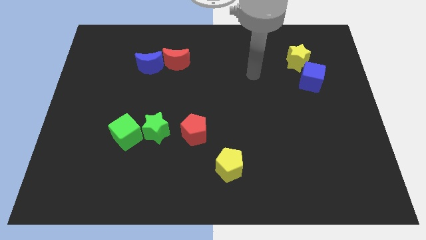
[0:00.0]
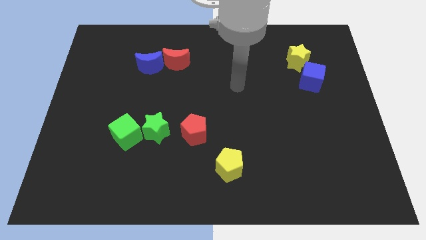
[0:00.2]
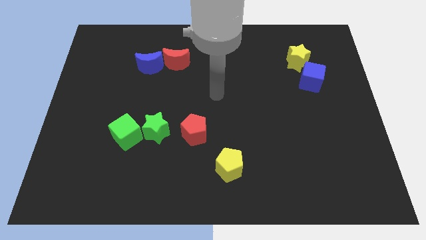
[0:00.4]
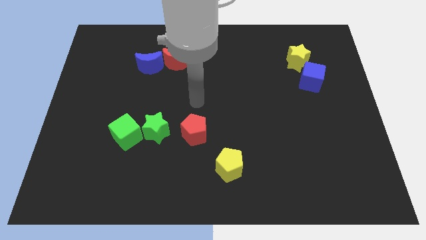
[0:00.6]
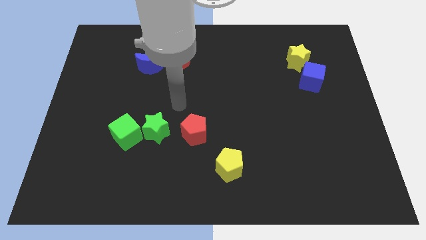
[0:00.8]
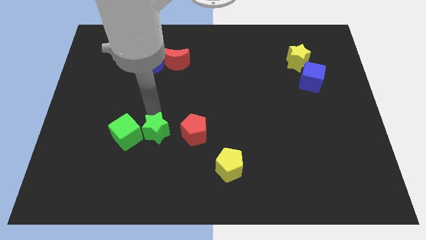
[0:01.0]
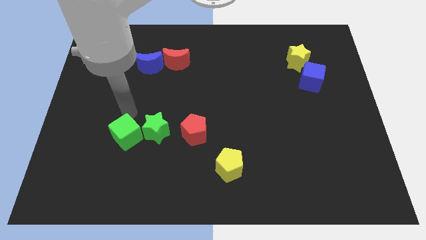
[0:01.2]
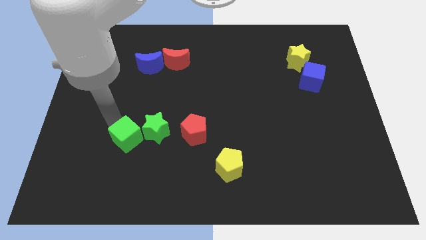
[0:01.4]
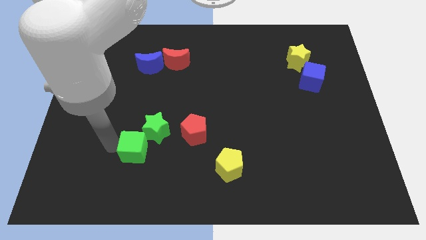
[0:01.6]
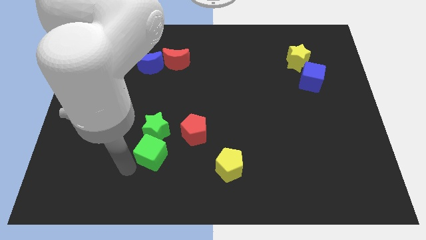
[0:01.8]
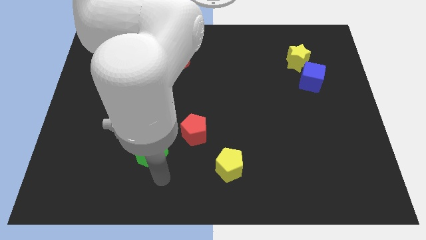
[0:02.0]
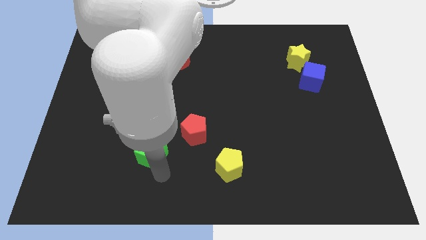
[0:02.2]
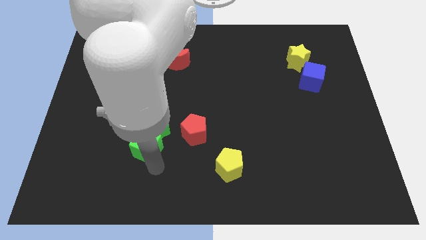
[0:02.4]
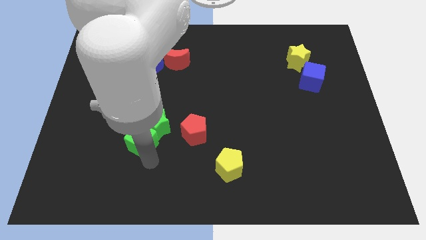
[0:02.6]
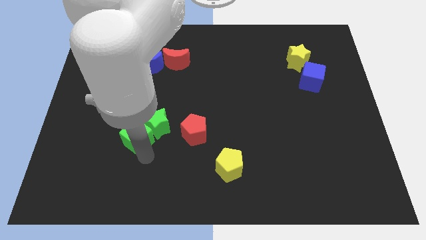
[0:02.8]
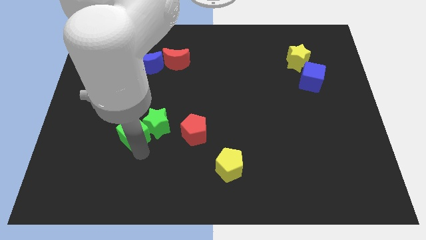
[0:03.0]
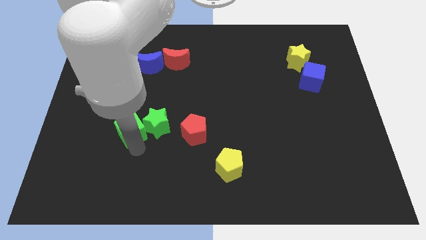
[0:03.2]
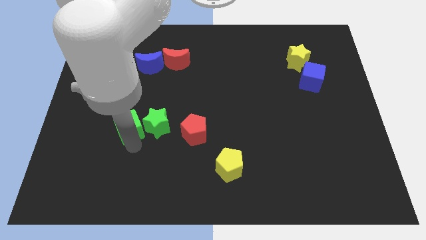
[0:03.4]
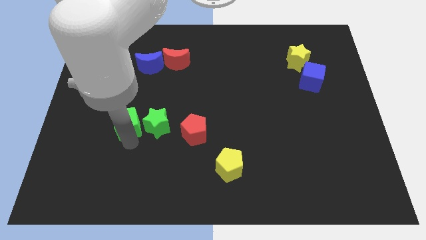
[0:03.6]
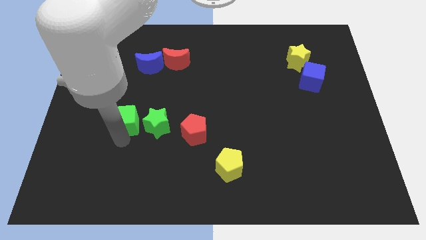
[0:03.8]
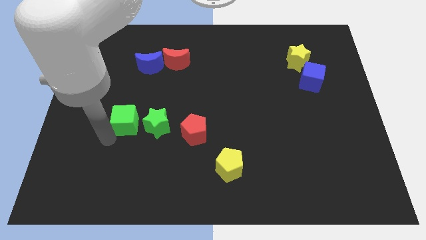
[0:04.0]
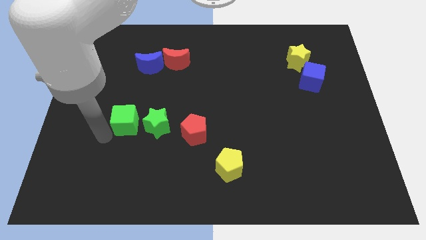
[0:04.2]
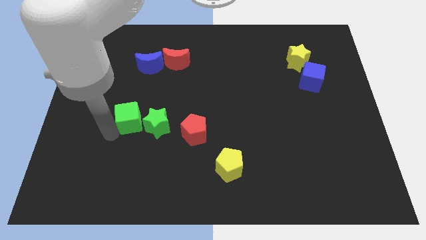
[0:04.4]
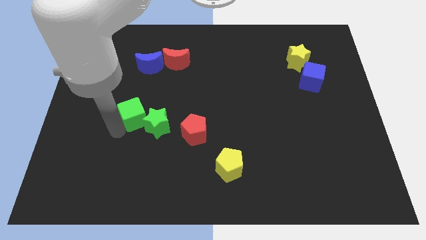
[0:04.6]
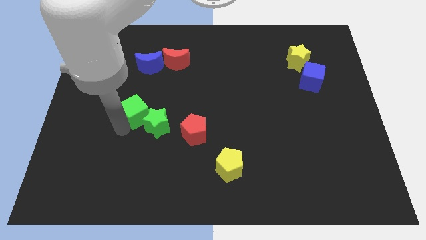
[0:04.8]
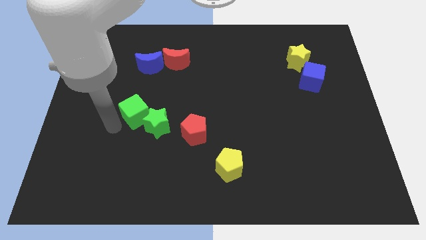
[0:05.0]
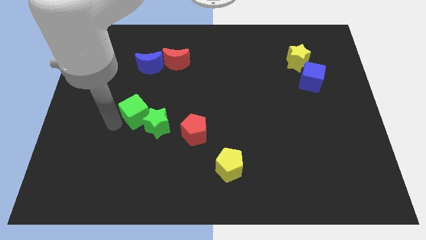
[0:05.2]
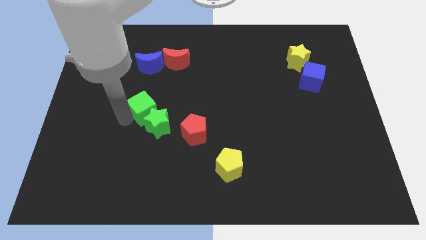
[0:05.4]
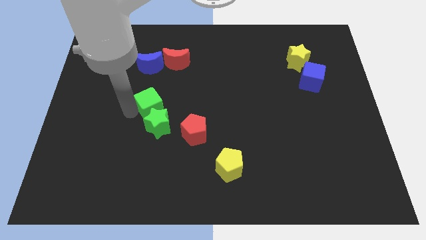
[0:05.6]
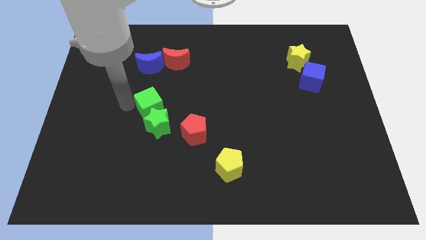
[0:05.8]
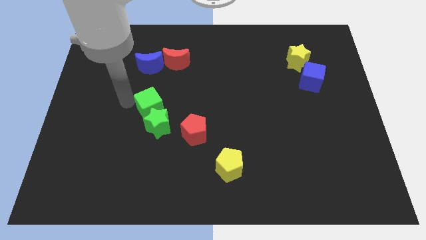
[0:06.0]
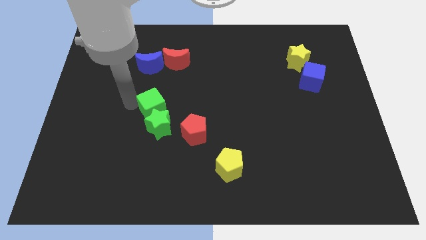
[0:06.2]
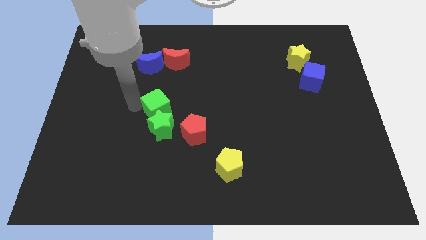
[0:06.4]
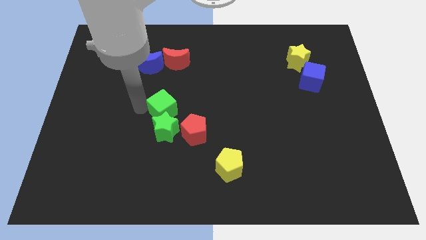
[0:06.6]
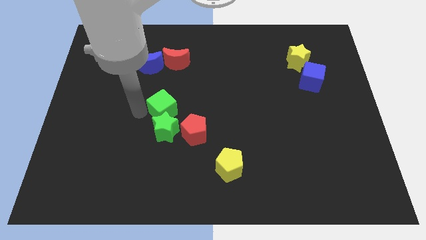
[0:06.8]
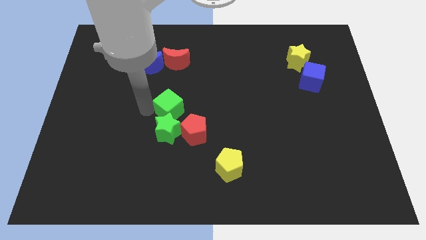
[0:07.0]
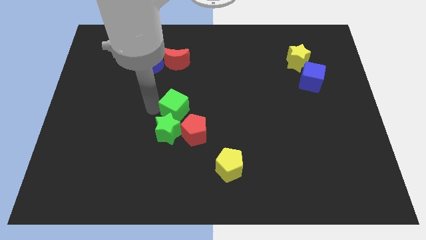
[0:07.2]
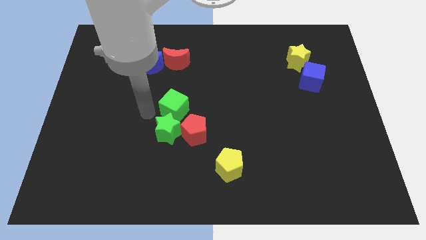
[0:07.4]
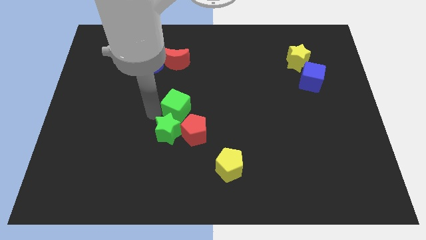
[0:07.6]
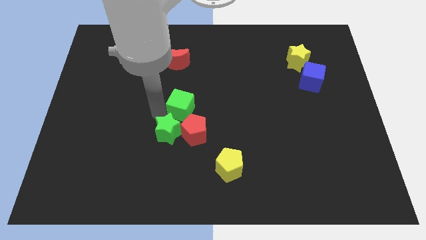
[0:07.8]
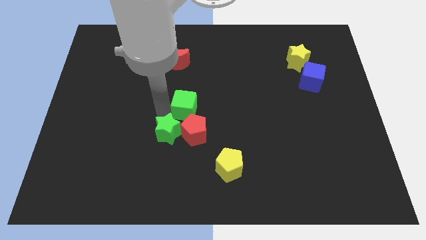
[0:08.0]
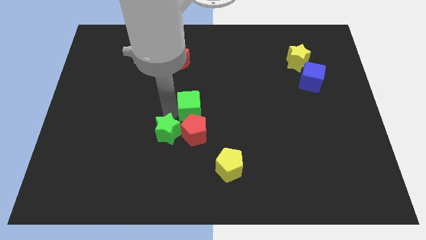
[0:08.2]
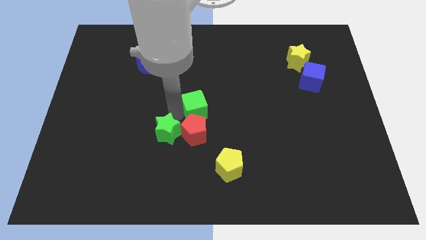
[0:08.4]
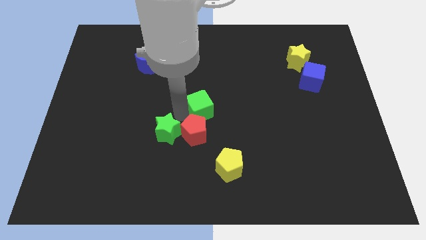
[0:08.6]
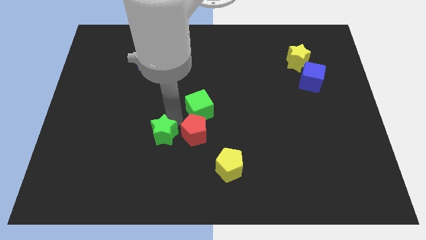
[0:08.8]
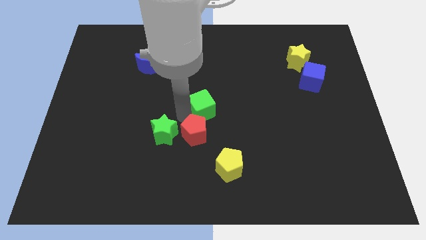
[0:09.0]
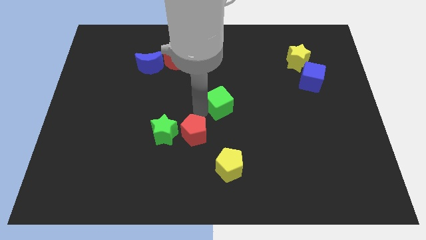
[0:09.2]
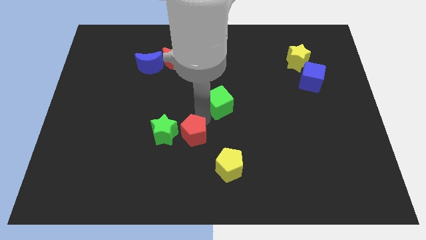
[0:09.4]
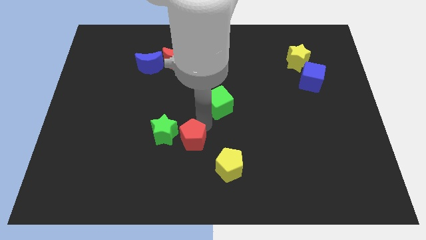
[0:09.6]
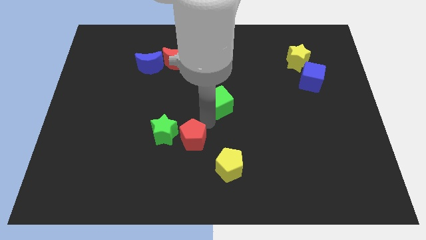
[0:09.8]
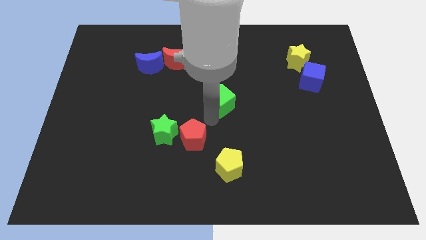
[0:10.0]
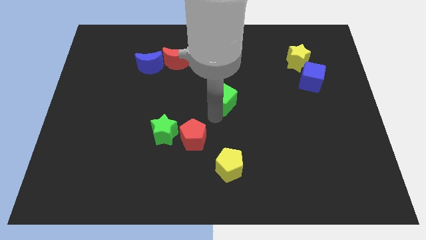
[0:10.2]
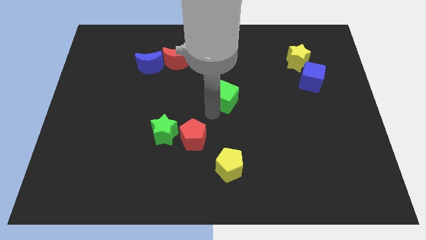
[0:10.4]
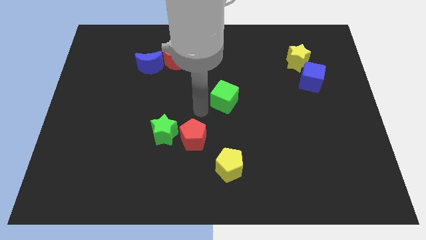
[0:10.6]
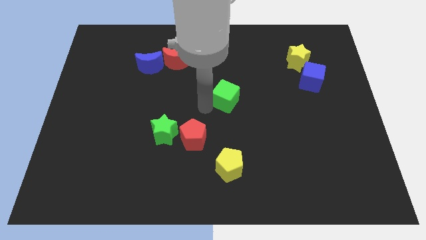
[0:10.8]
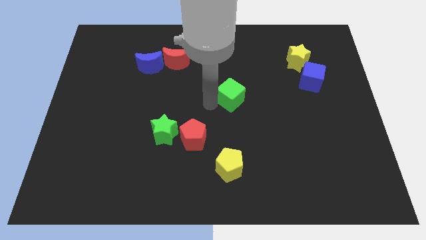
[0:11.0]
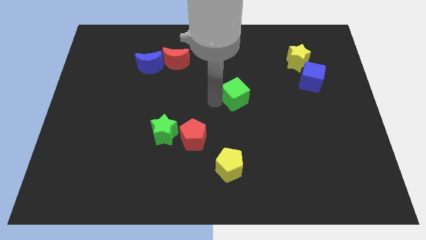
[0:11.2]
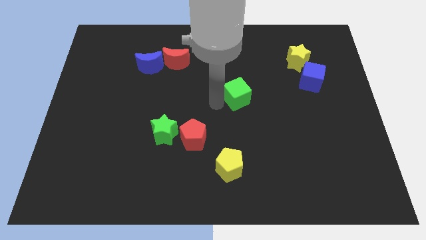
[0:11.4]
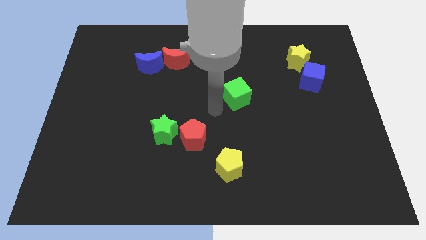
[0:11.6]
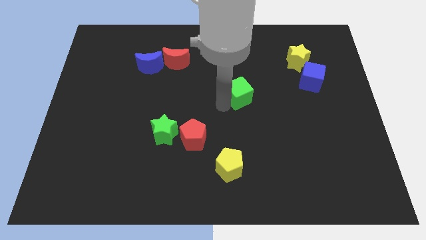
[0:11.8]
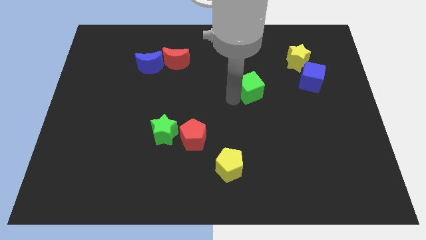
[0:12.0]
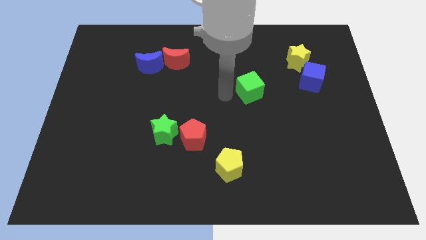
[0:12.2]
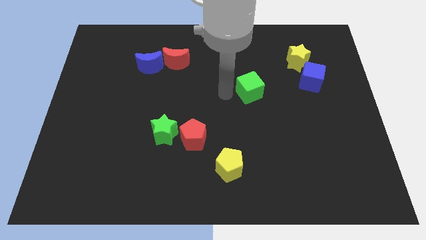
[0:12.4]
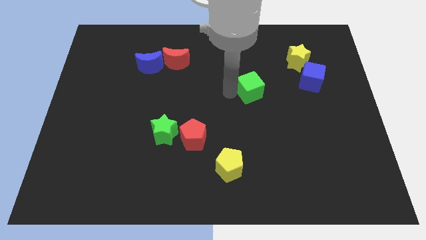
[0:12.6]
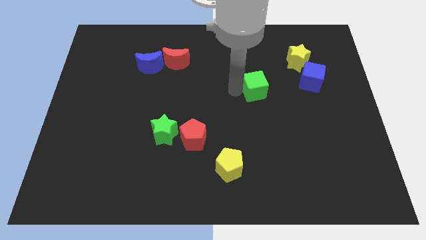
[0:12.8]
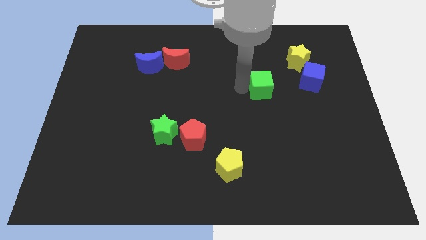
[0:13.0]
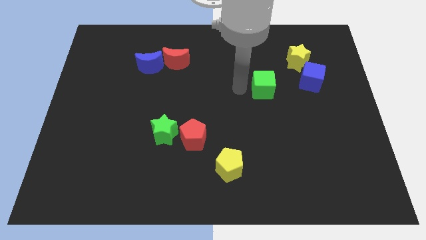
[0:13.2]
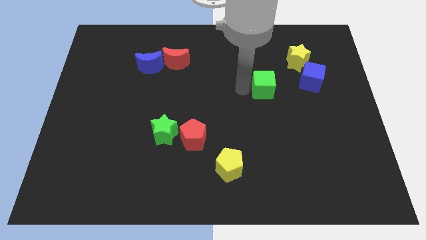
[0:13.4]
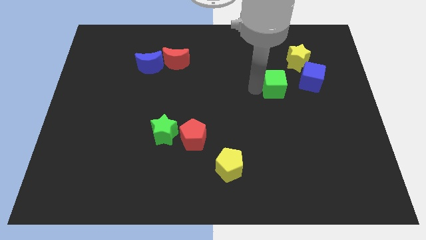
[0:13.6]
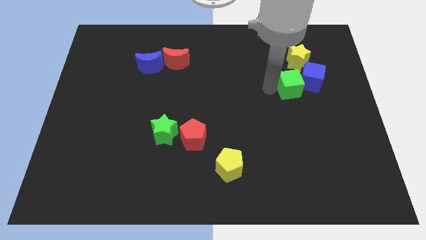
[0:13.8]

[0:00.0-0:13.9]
slide the green cube towards the blue cube
